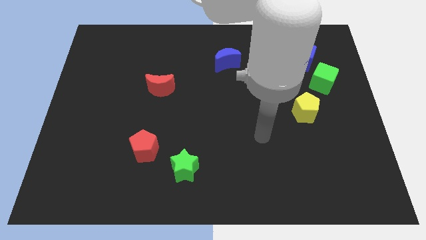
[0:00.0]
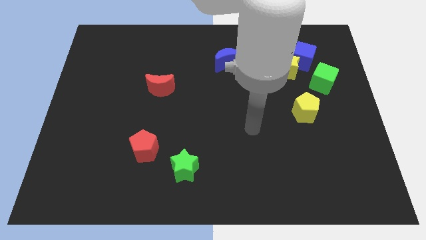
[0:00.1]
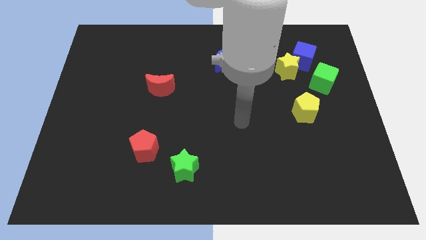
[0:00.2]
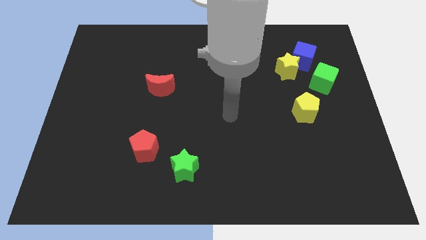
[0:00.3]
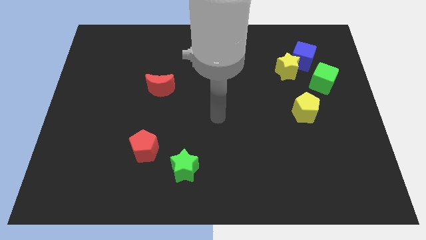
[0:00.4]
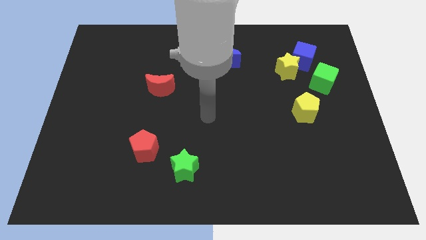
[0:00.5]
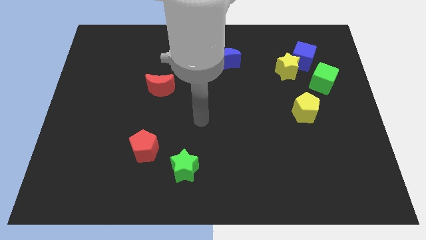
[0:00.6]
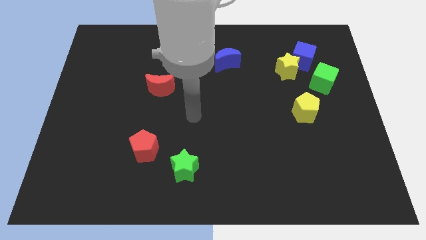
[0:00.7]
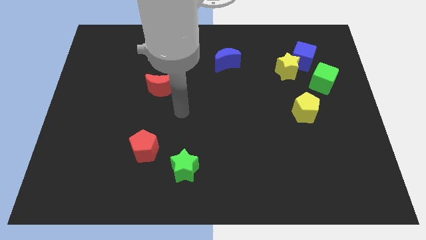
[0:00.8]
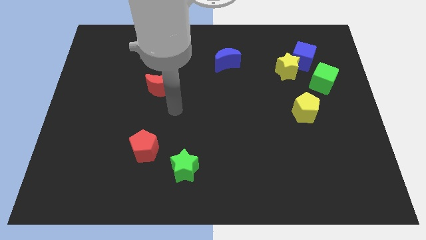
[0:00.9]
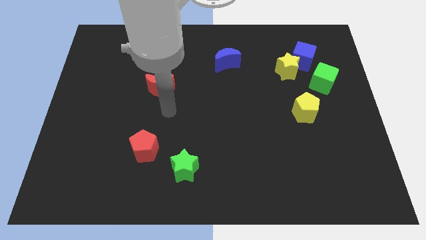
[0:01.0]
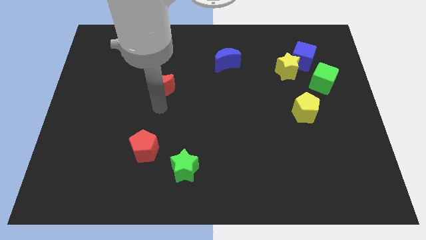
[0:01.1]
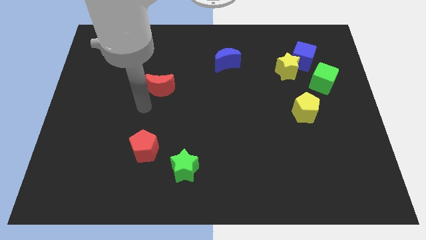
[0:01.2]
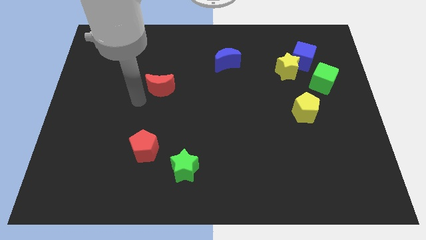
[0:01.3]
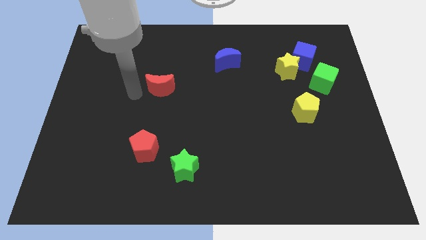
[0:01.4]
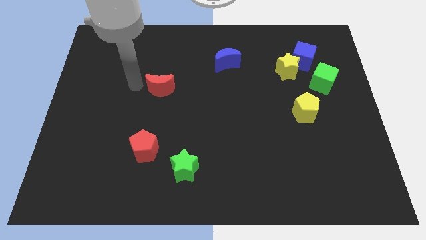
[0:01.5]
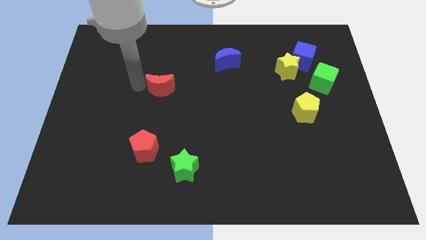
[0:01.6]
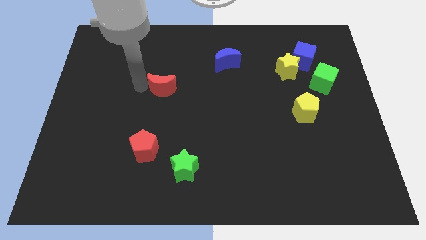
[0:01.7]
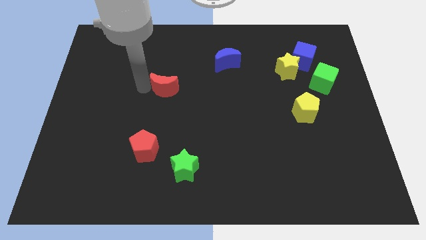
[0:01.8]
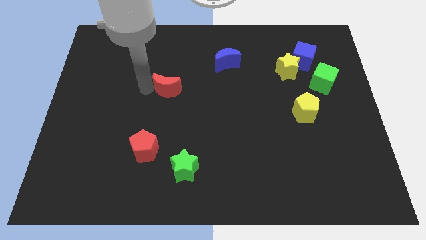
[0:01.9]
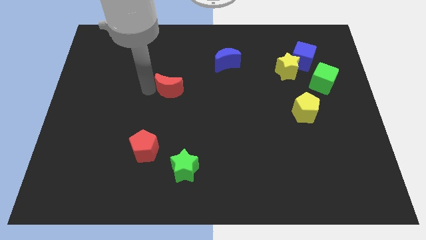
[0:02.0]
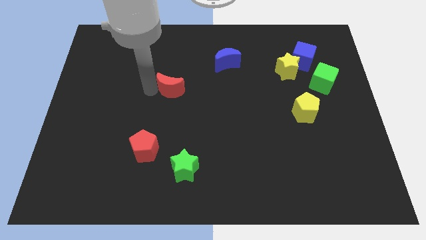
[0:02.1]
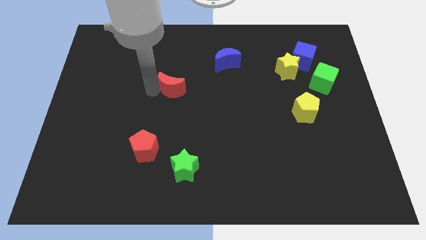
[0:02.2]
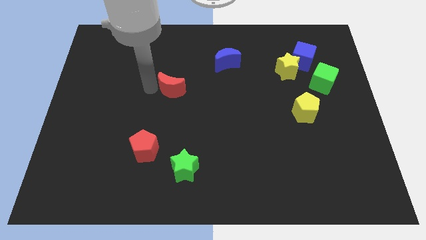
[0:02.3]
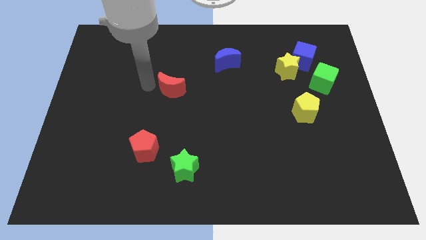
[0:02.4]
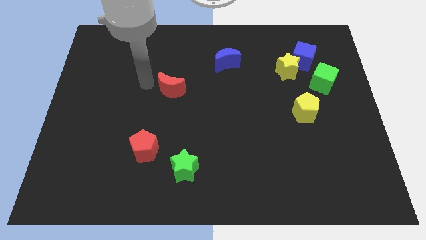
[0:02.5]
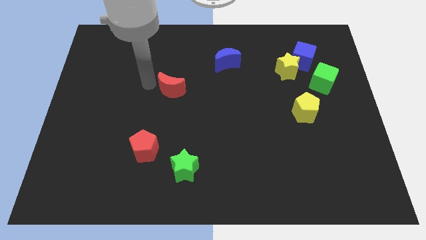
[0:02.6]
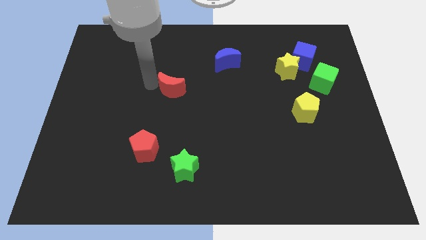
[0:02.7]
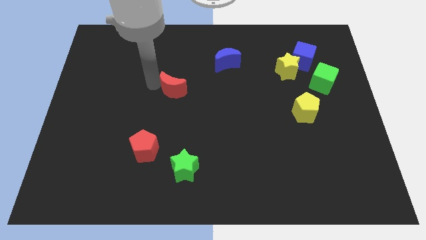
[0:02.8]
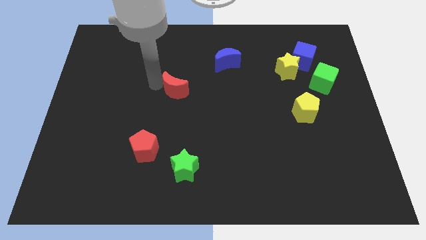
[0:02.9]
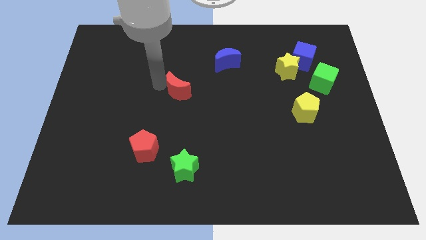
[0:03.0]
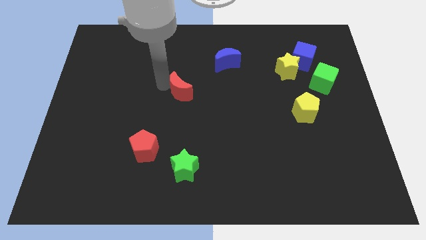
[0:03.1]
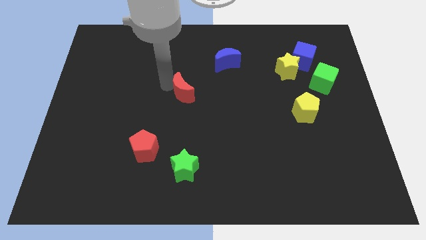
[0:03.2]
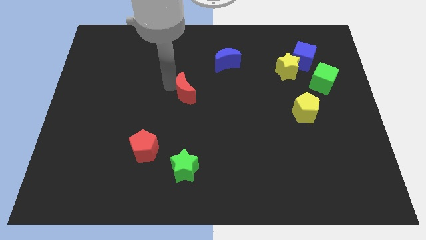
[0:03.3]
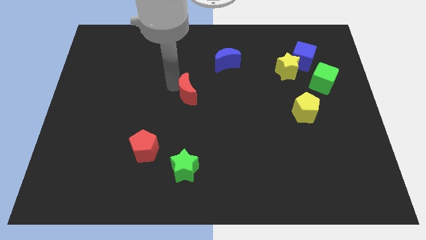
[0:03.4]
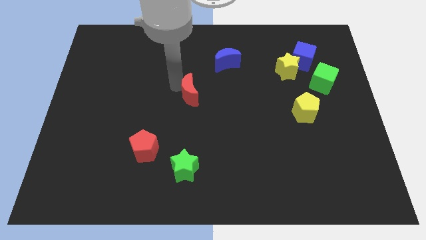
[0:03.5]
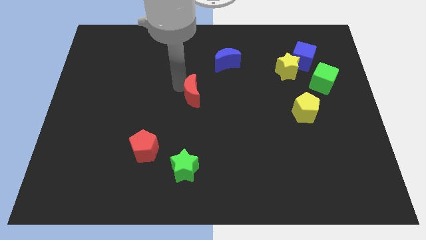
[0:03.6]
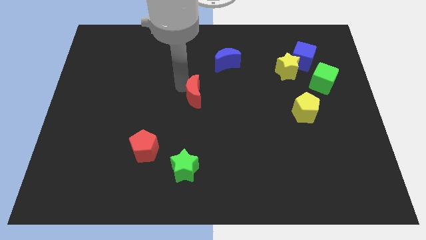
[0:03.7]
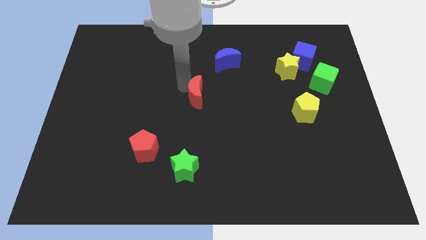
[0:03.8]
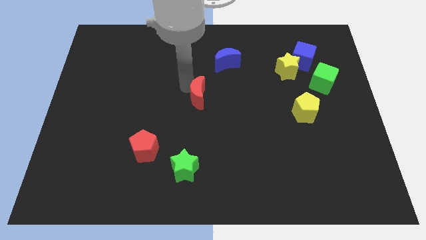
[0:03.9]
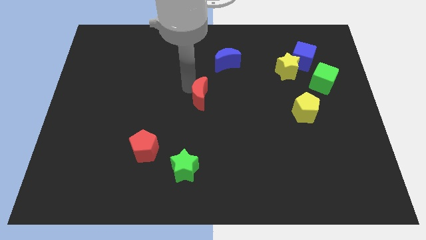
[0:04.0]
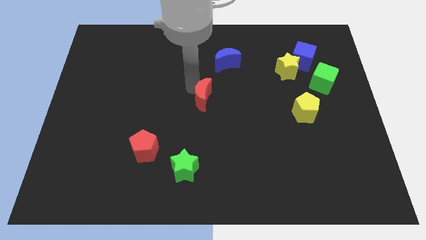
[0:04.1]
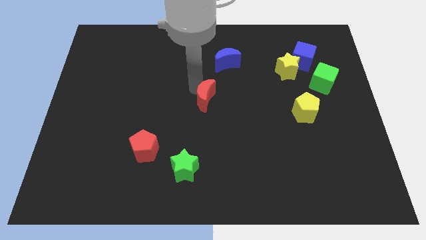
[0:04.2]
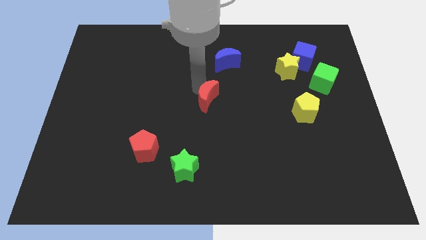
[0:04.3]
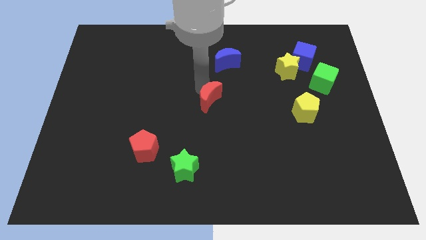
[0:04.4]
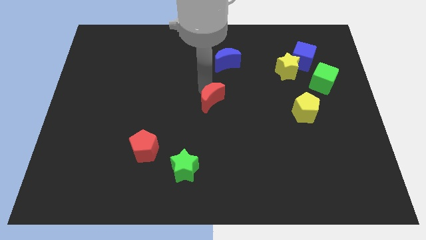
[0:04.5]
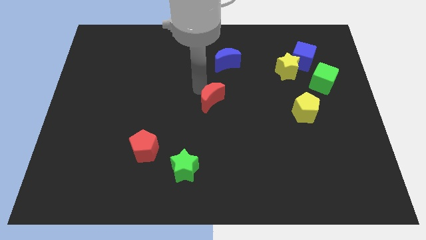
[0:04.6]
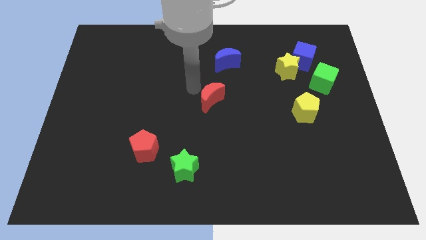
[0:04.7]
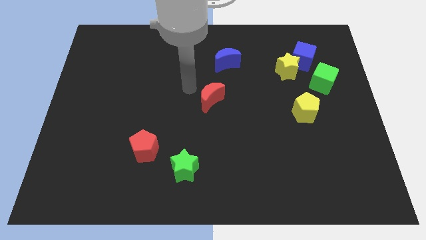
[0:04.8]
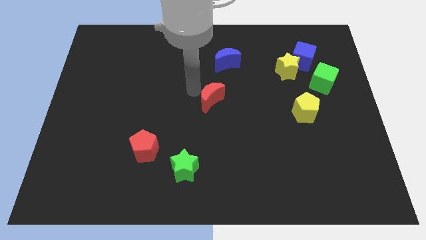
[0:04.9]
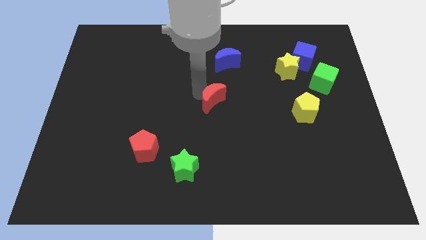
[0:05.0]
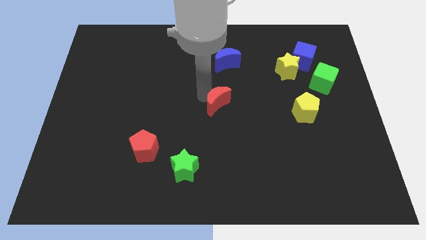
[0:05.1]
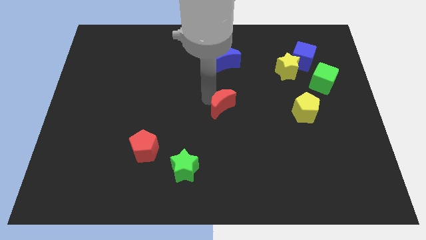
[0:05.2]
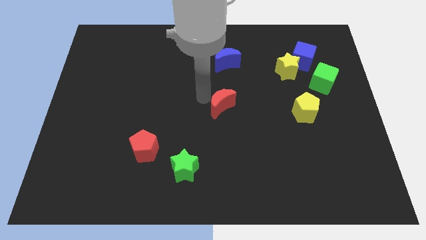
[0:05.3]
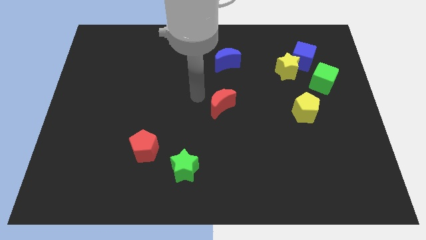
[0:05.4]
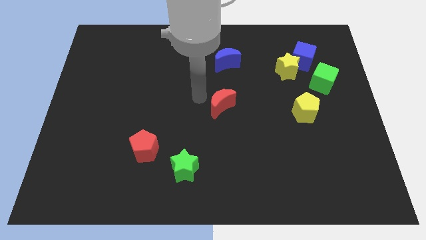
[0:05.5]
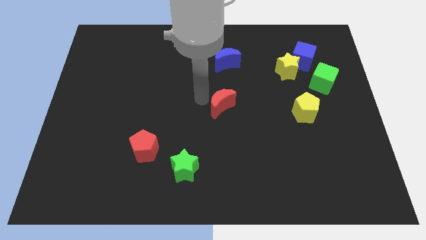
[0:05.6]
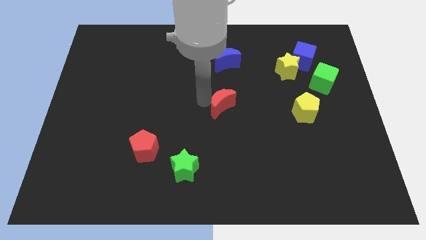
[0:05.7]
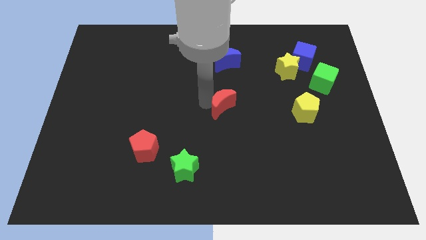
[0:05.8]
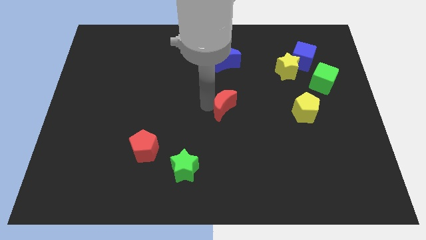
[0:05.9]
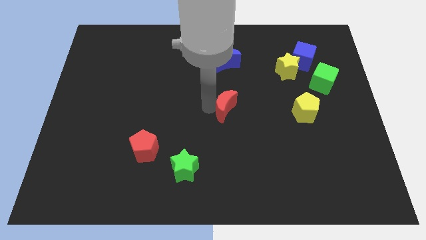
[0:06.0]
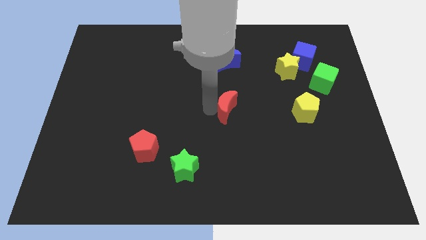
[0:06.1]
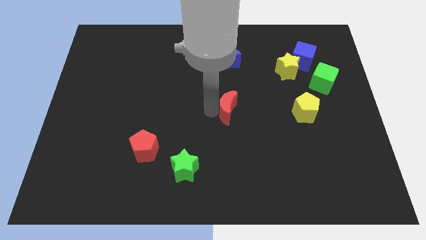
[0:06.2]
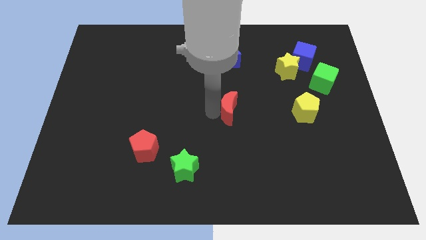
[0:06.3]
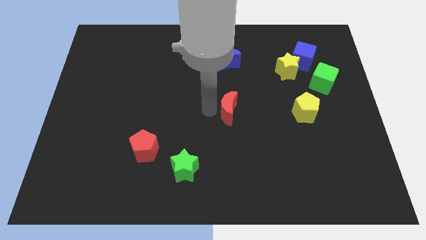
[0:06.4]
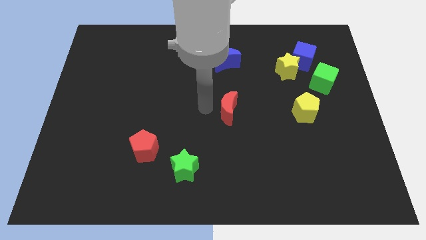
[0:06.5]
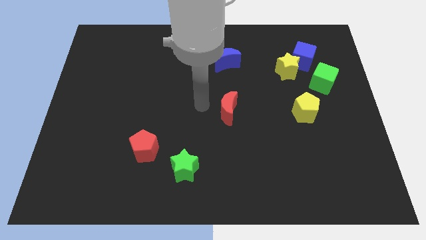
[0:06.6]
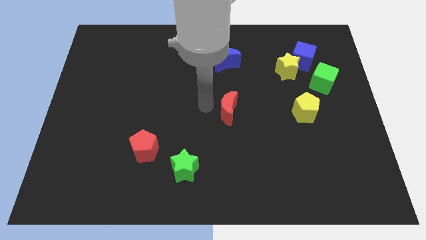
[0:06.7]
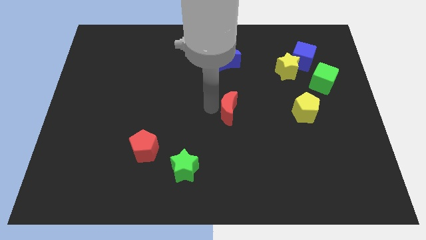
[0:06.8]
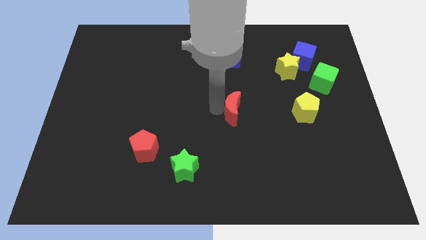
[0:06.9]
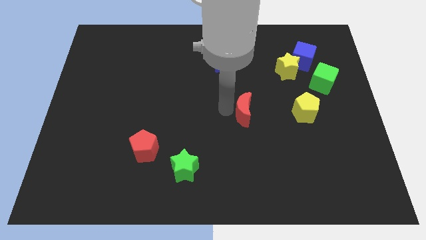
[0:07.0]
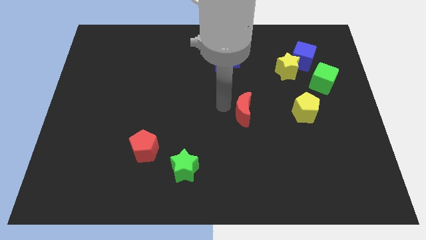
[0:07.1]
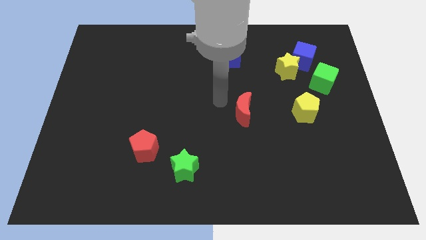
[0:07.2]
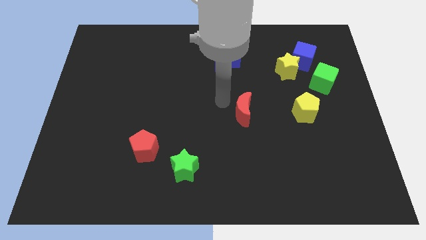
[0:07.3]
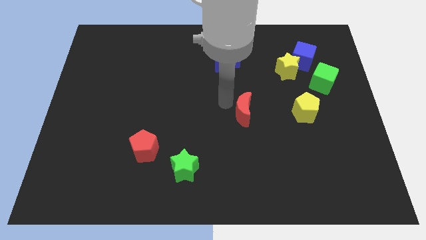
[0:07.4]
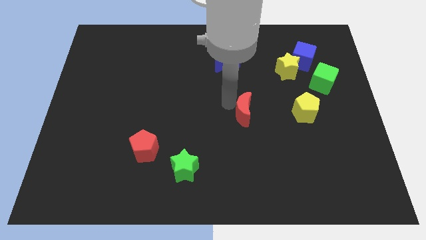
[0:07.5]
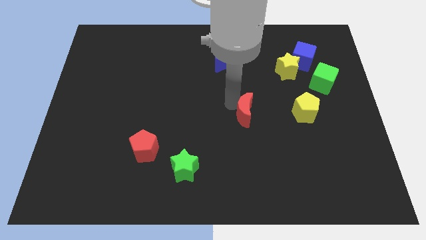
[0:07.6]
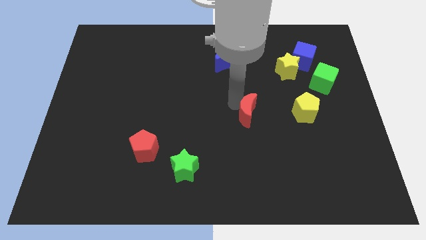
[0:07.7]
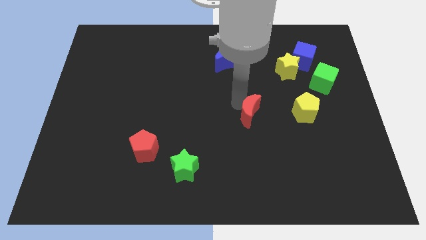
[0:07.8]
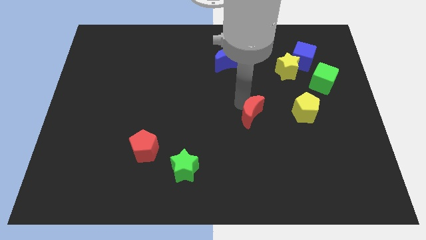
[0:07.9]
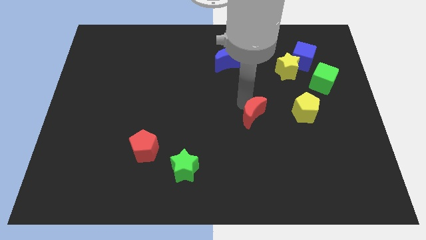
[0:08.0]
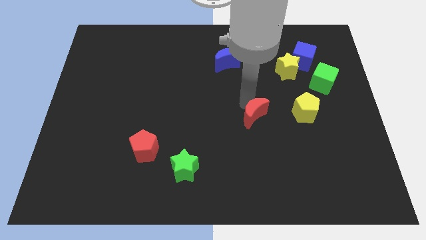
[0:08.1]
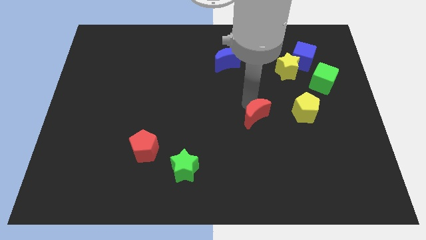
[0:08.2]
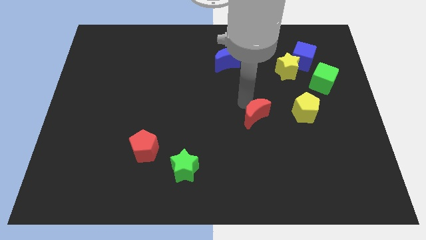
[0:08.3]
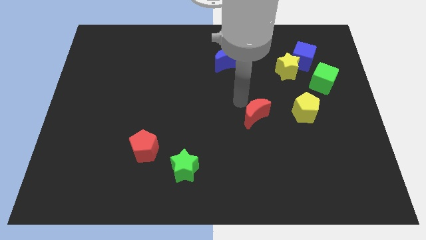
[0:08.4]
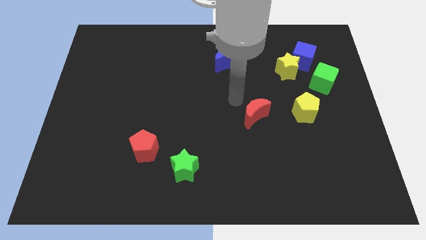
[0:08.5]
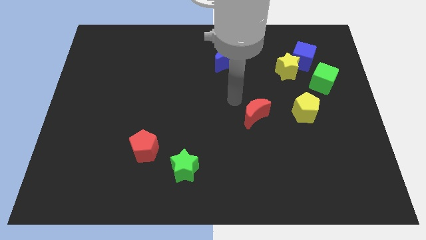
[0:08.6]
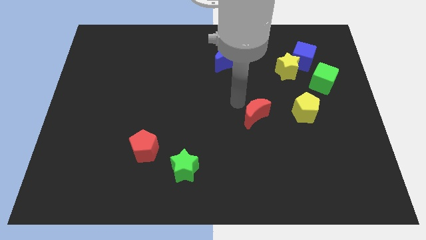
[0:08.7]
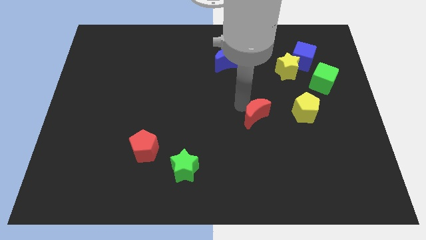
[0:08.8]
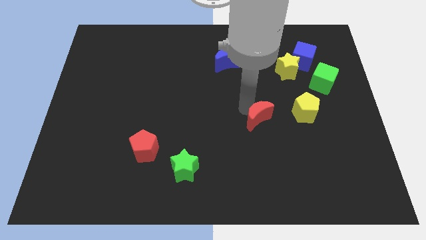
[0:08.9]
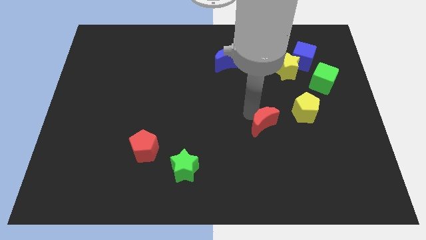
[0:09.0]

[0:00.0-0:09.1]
put the red moon to the bottom left side of the yellow pentagon
